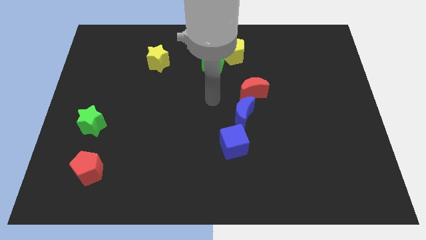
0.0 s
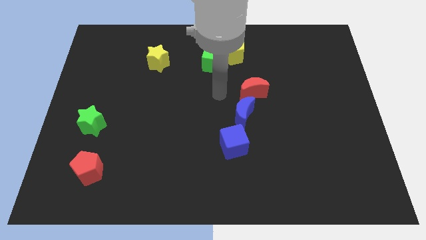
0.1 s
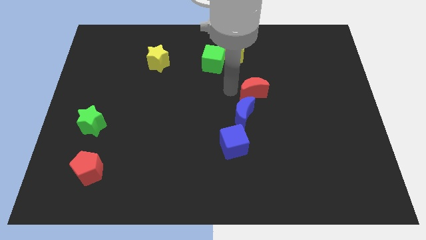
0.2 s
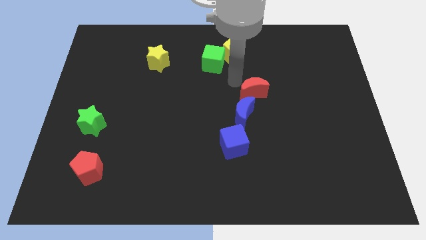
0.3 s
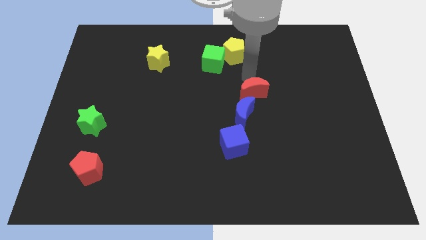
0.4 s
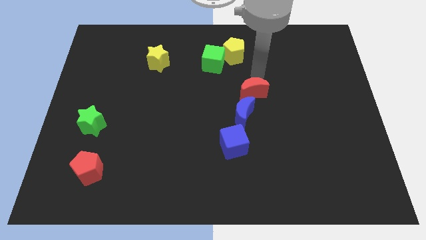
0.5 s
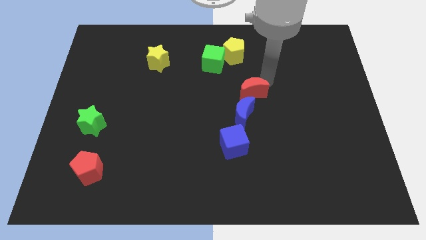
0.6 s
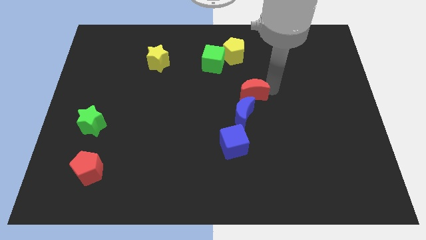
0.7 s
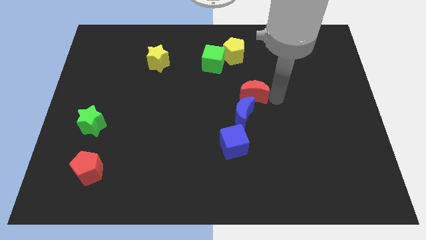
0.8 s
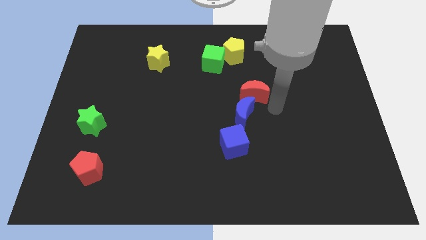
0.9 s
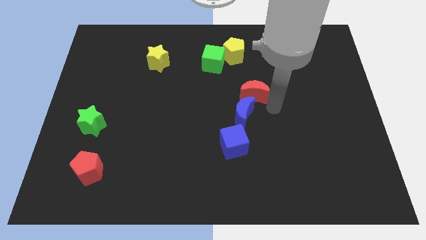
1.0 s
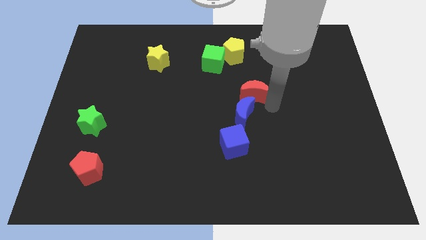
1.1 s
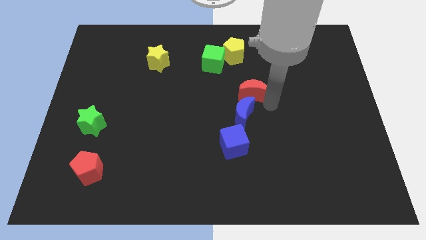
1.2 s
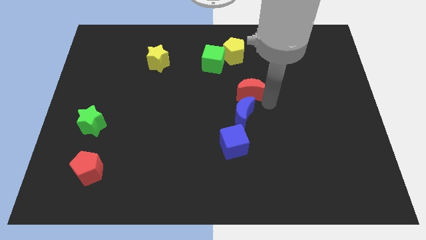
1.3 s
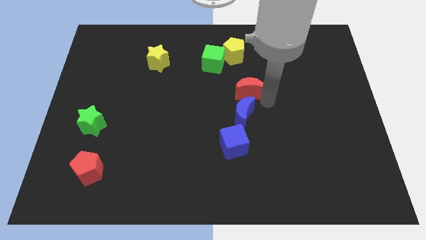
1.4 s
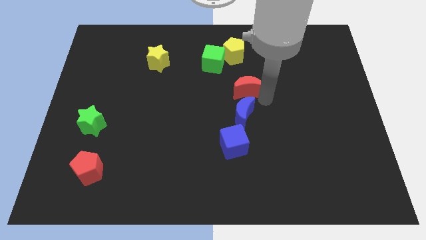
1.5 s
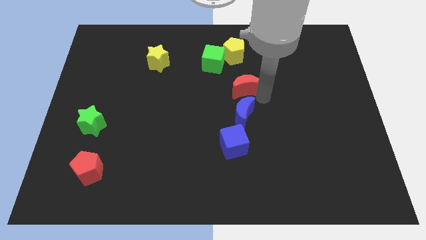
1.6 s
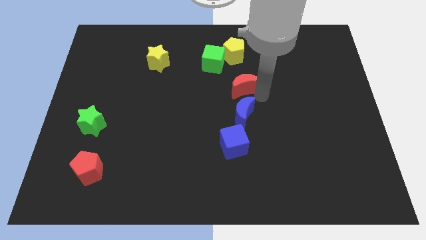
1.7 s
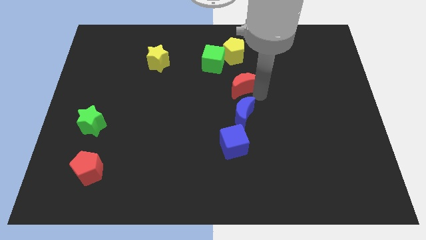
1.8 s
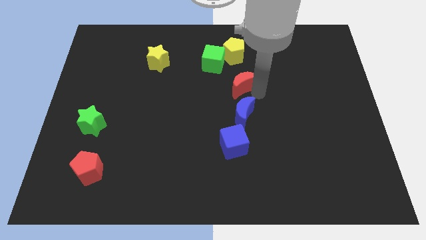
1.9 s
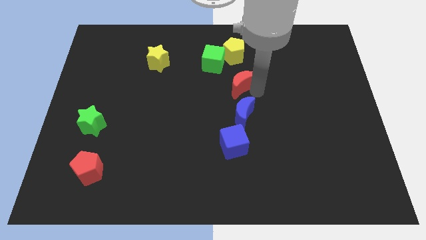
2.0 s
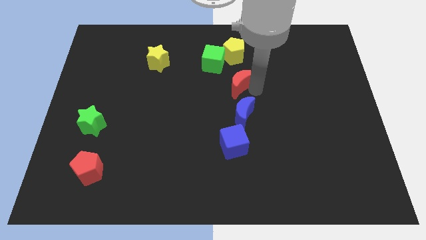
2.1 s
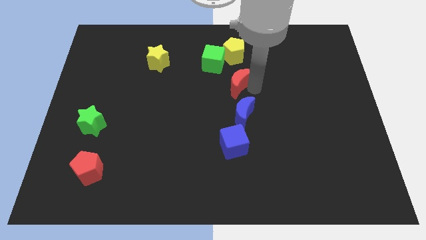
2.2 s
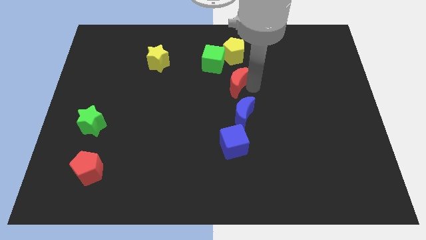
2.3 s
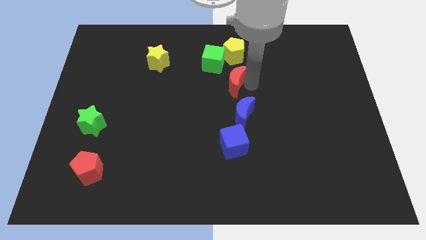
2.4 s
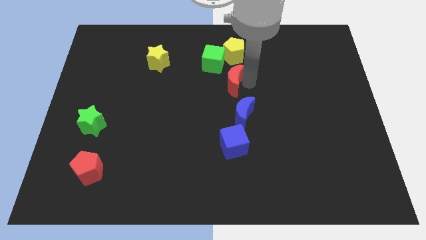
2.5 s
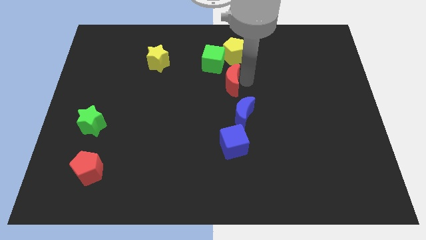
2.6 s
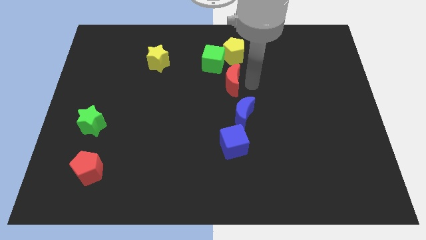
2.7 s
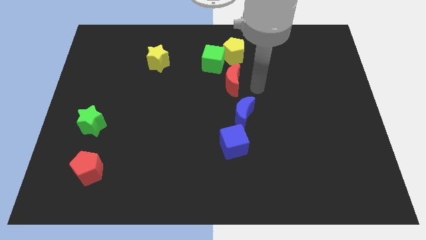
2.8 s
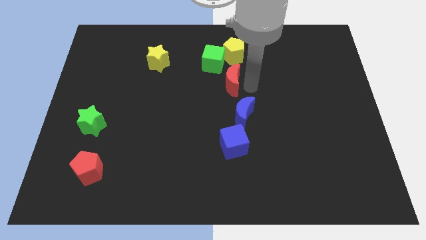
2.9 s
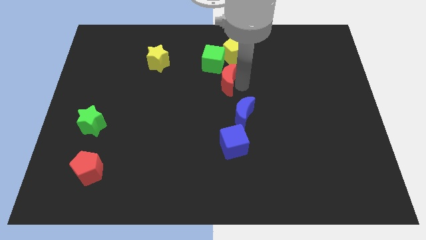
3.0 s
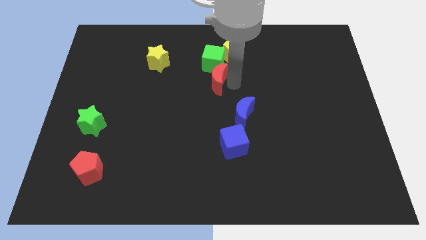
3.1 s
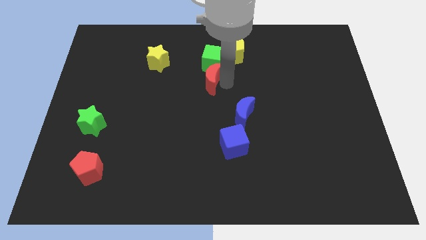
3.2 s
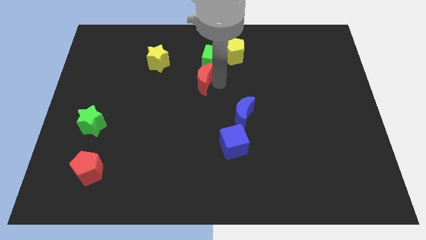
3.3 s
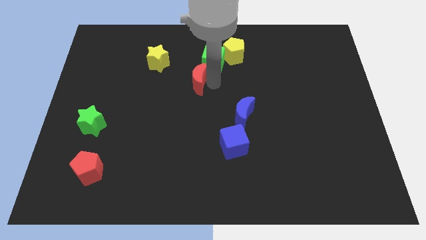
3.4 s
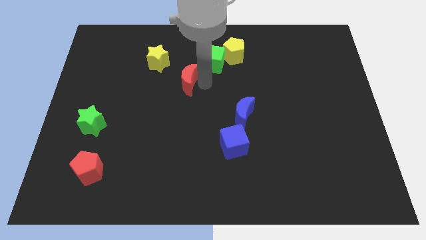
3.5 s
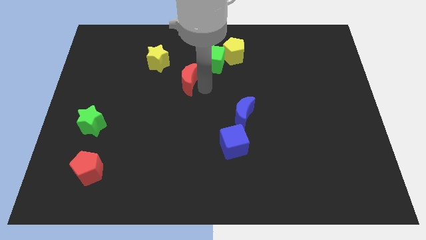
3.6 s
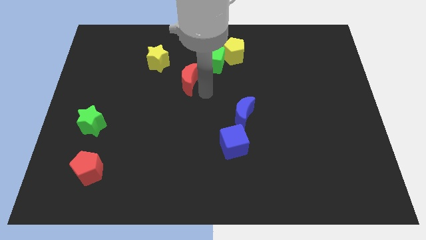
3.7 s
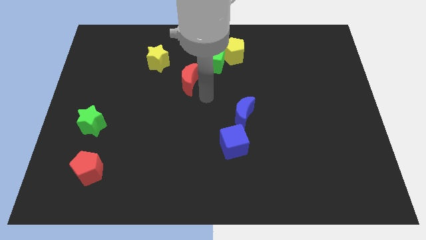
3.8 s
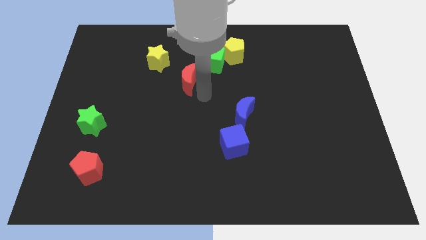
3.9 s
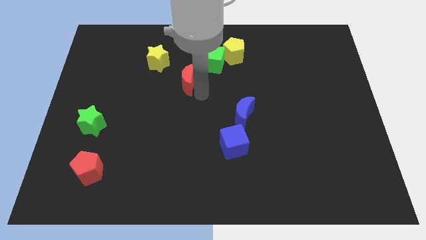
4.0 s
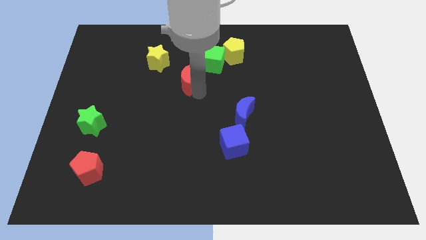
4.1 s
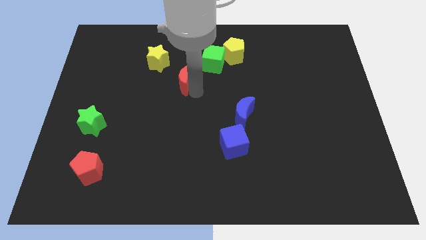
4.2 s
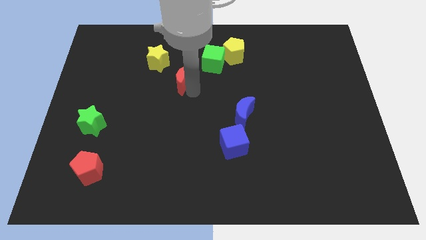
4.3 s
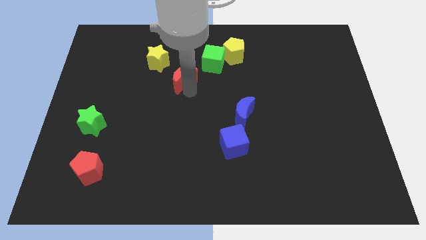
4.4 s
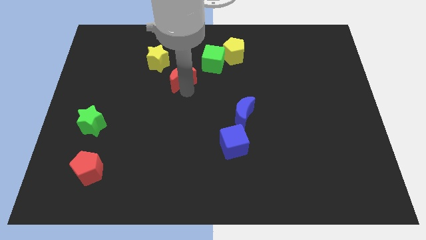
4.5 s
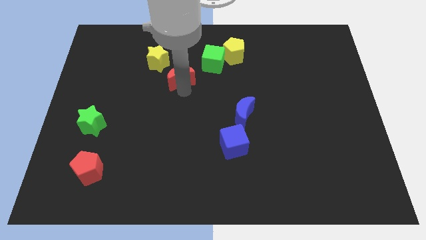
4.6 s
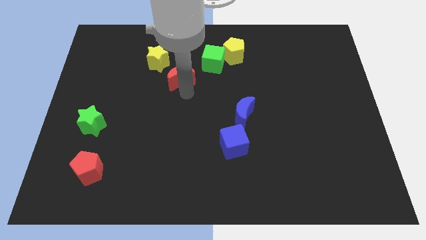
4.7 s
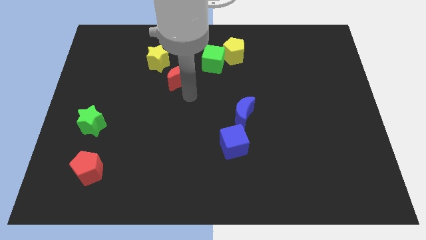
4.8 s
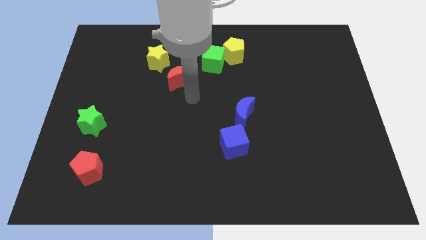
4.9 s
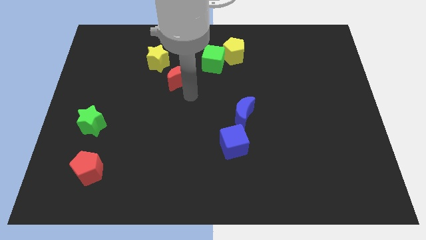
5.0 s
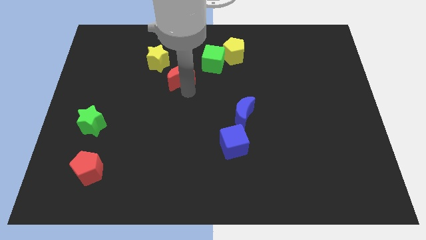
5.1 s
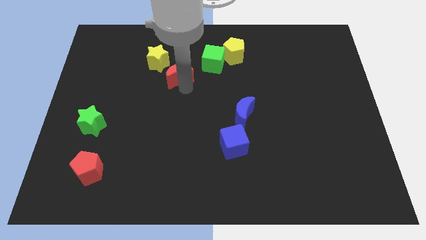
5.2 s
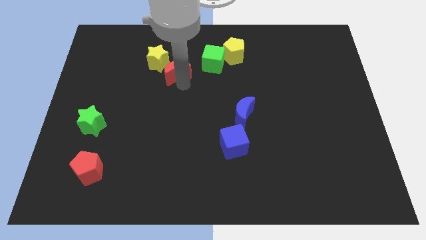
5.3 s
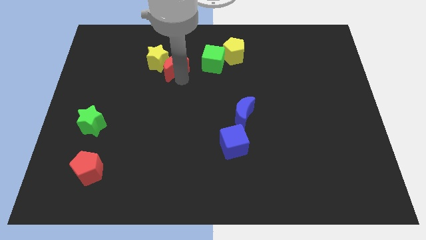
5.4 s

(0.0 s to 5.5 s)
move the red moon close to the yellow star

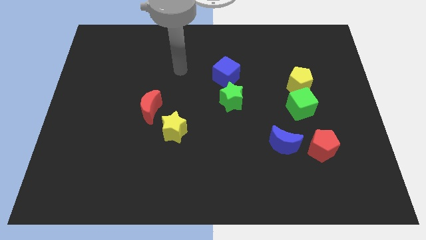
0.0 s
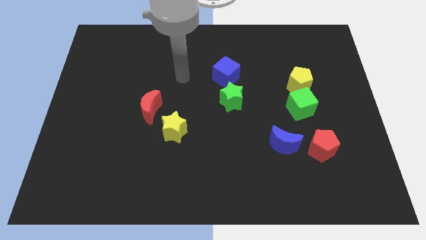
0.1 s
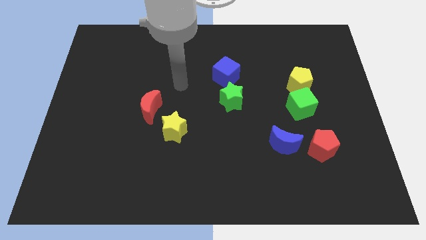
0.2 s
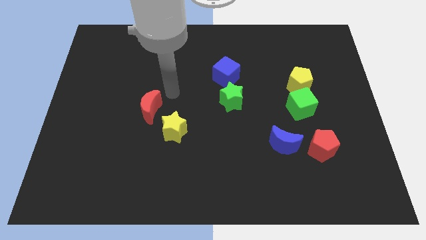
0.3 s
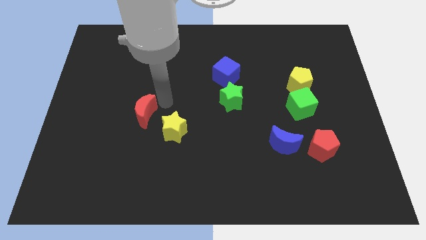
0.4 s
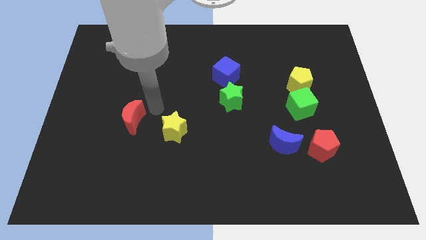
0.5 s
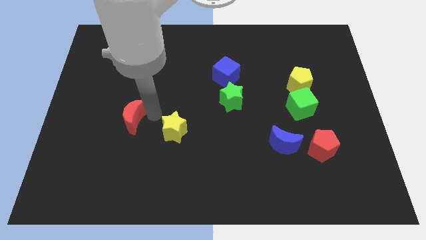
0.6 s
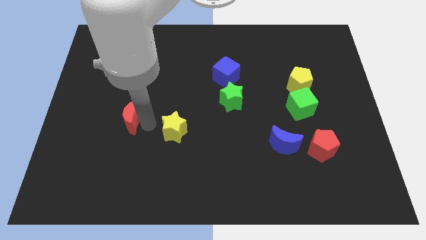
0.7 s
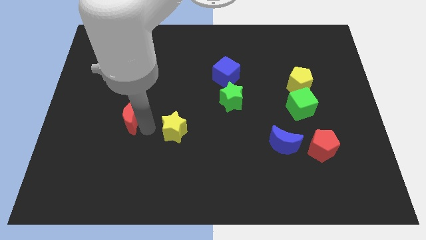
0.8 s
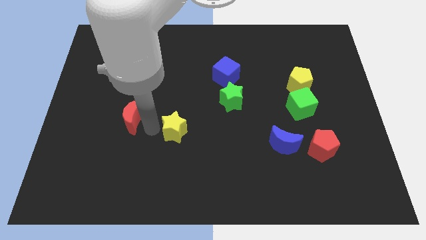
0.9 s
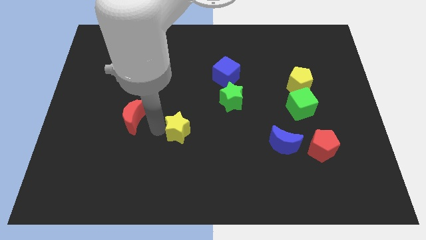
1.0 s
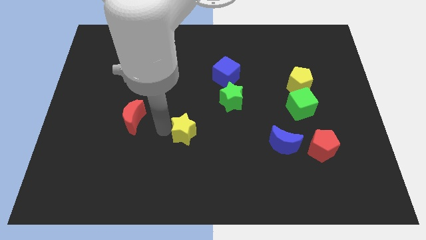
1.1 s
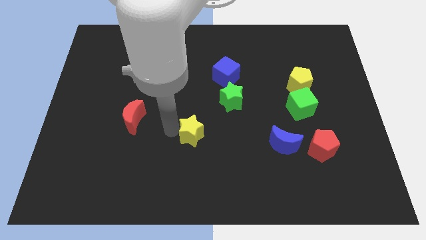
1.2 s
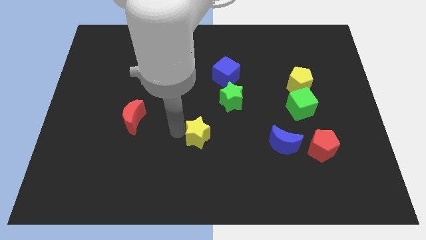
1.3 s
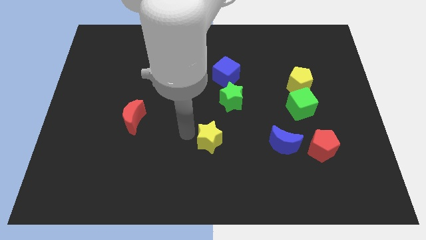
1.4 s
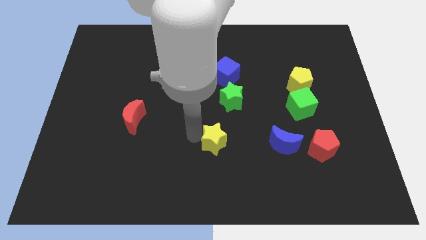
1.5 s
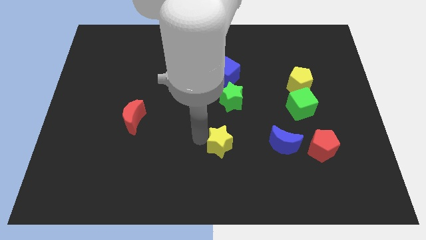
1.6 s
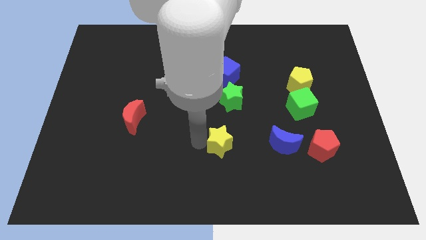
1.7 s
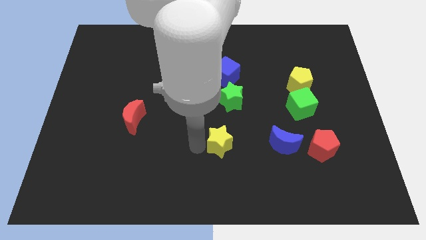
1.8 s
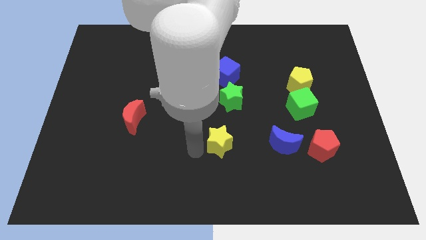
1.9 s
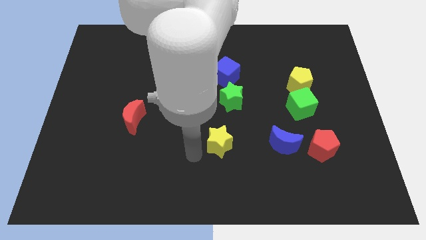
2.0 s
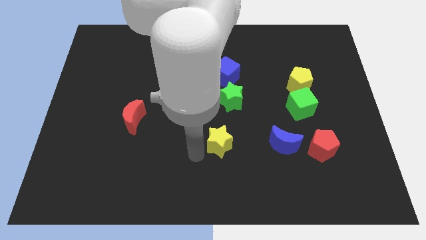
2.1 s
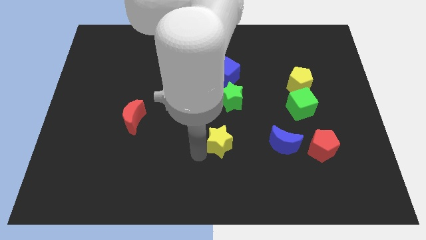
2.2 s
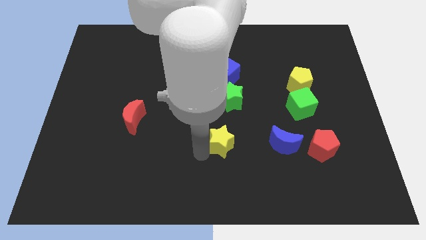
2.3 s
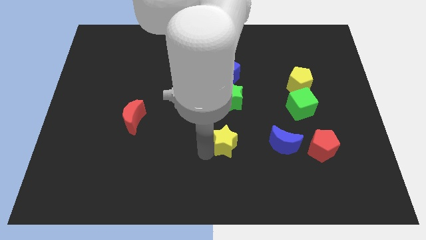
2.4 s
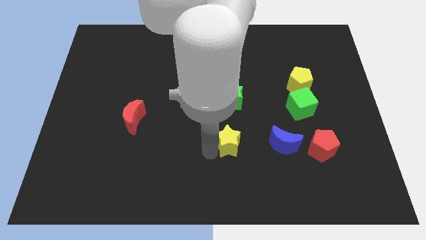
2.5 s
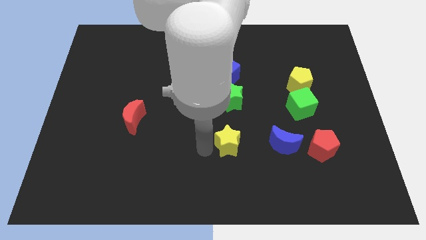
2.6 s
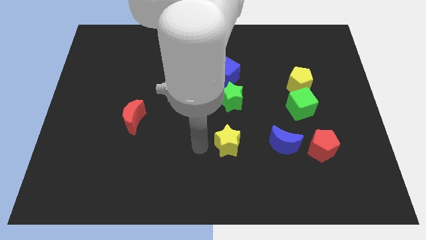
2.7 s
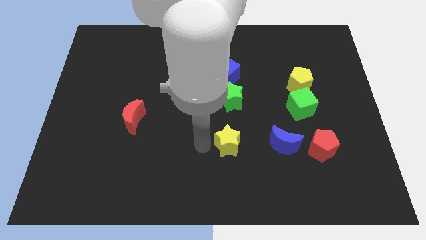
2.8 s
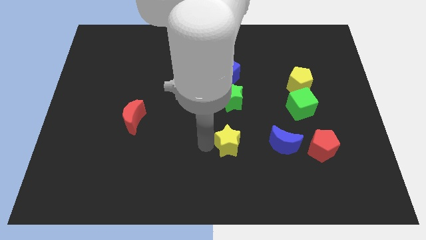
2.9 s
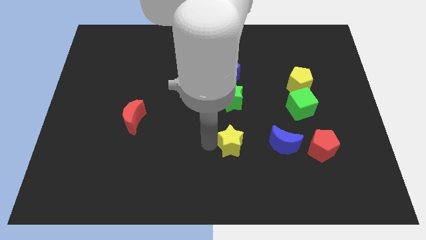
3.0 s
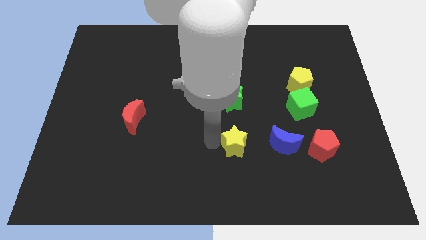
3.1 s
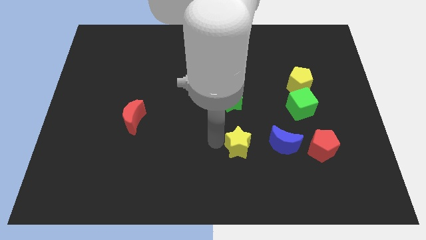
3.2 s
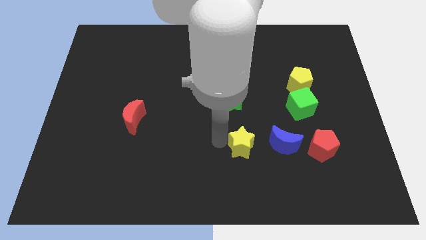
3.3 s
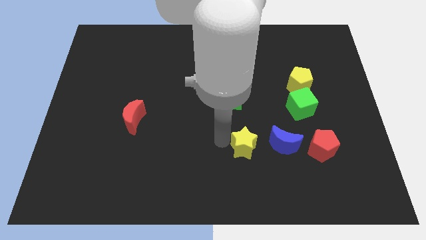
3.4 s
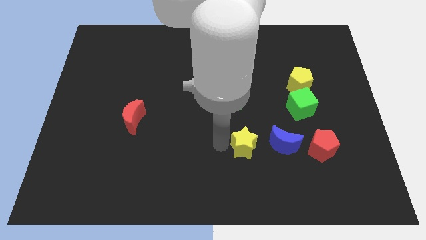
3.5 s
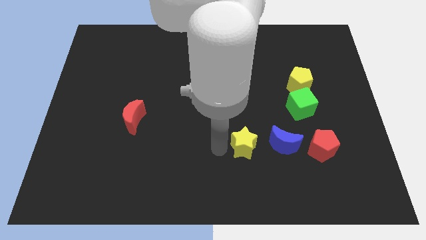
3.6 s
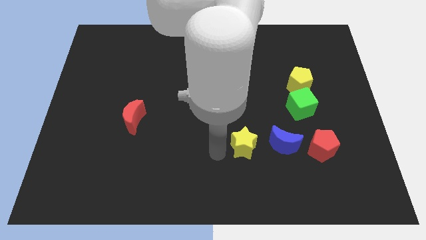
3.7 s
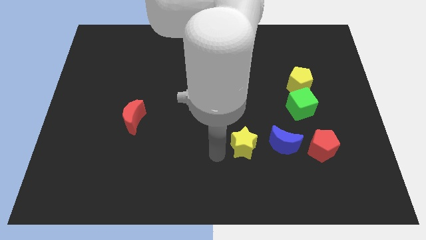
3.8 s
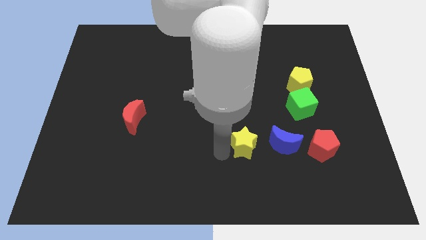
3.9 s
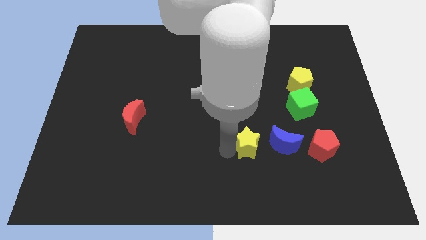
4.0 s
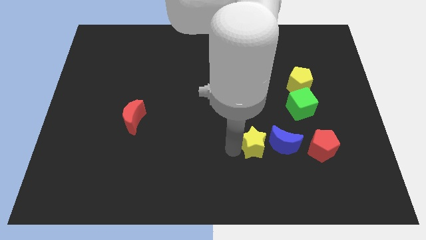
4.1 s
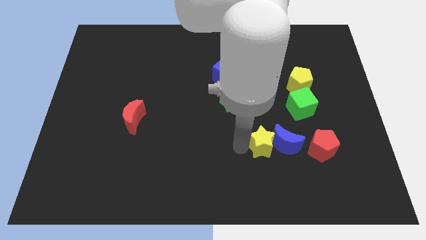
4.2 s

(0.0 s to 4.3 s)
move the yellow star close to the blue moon
